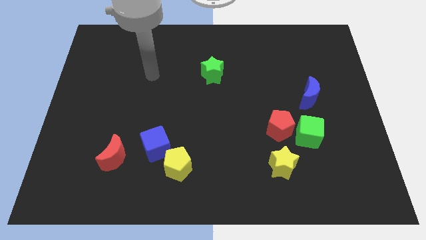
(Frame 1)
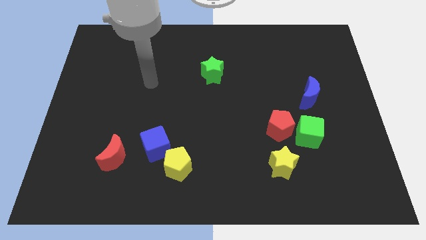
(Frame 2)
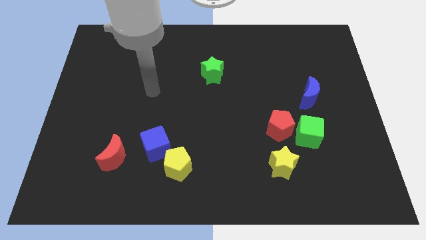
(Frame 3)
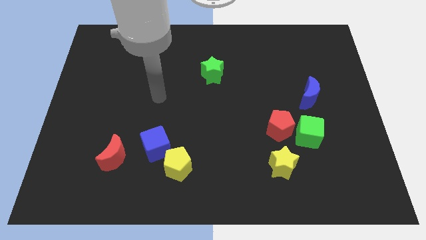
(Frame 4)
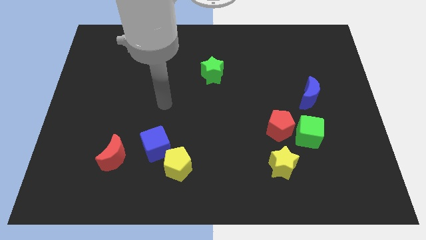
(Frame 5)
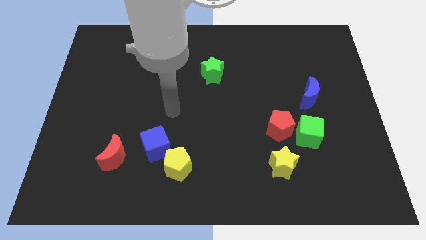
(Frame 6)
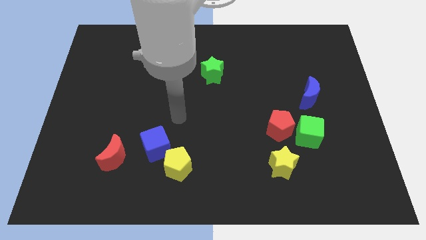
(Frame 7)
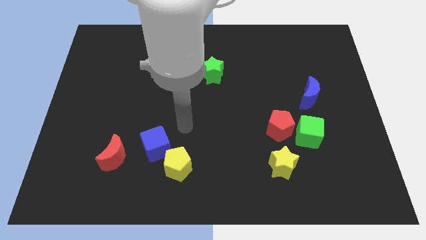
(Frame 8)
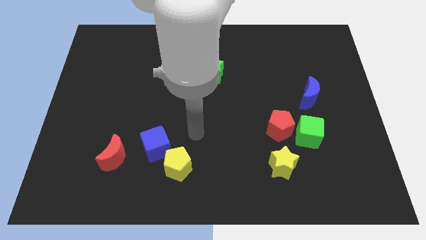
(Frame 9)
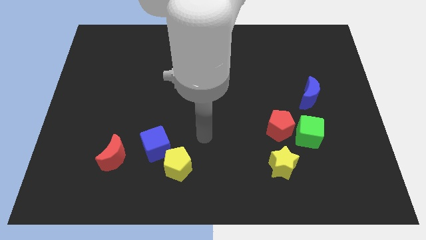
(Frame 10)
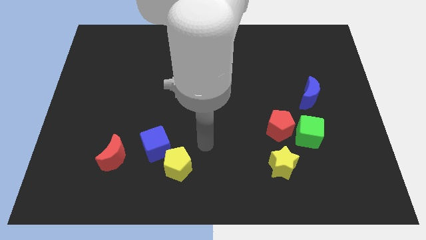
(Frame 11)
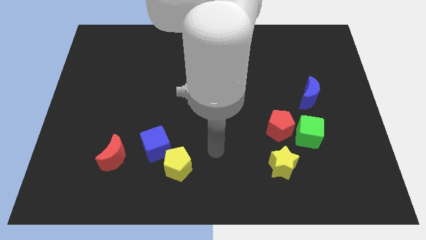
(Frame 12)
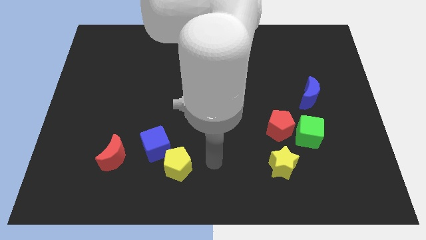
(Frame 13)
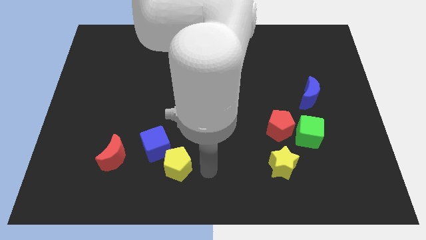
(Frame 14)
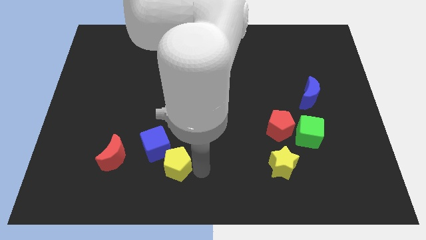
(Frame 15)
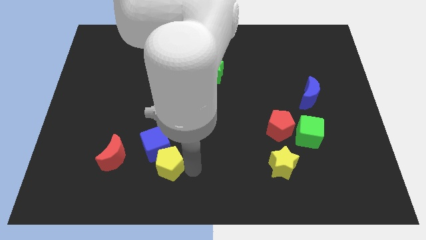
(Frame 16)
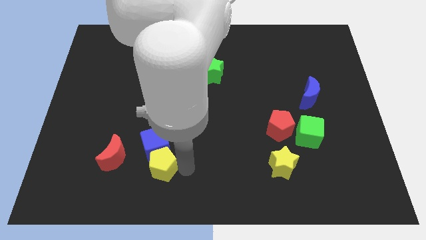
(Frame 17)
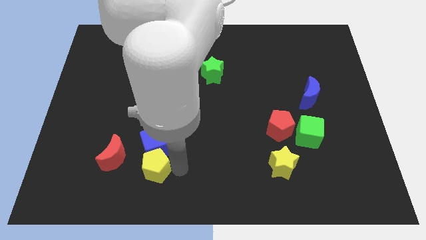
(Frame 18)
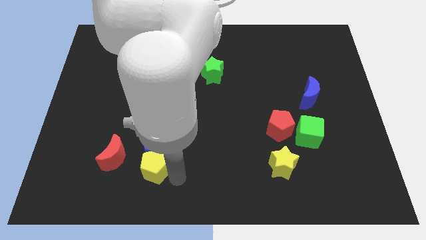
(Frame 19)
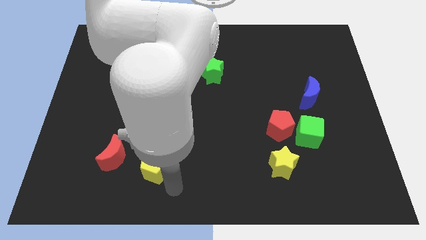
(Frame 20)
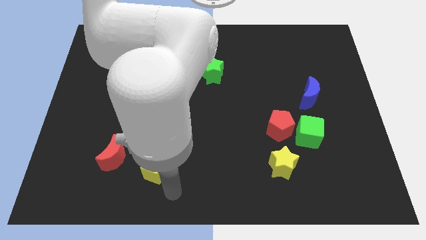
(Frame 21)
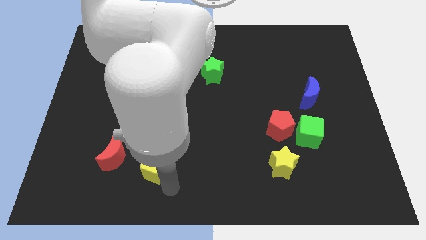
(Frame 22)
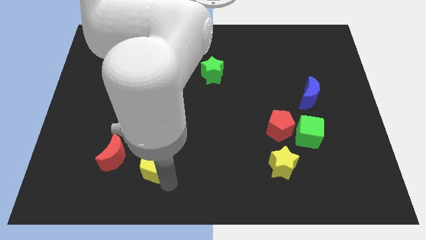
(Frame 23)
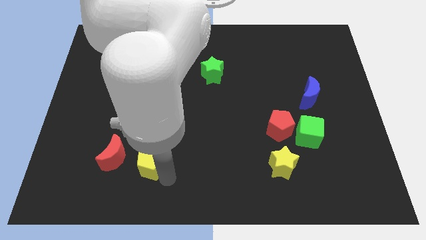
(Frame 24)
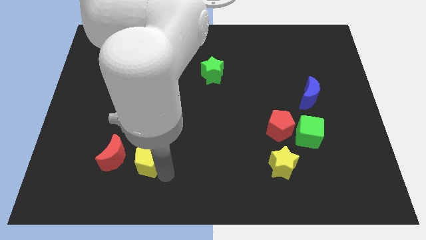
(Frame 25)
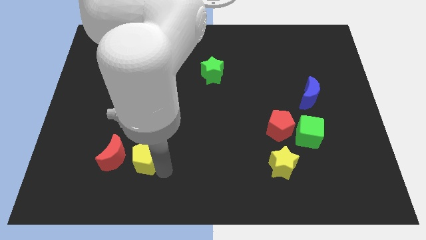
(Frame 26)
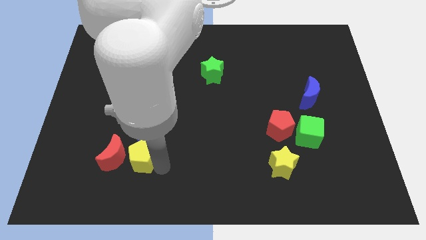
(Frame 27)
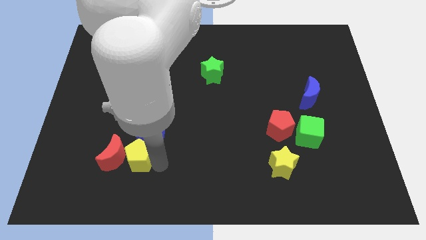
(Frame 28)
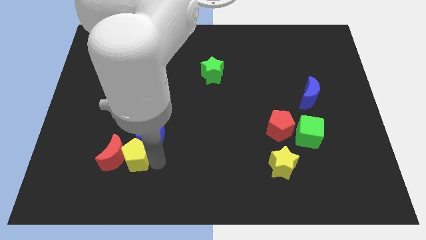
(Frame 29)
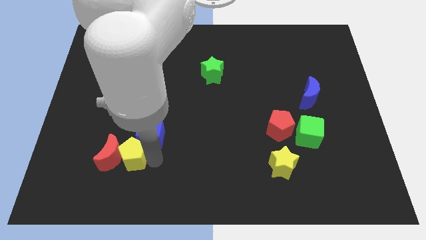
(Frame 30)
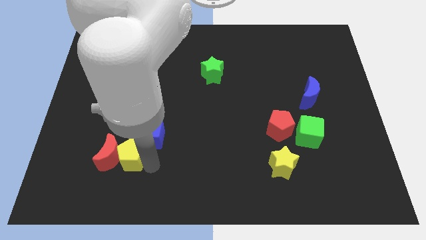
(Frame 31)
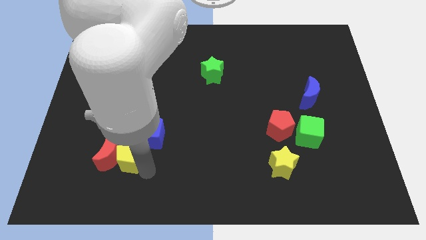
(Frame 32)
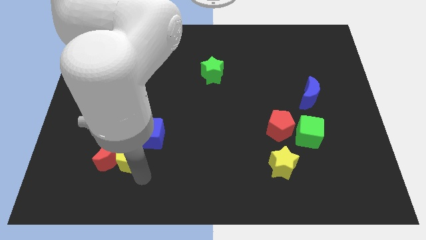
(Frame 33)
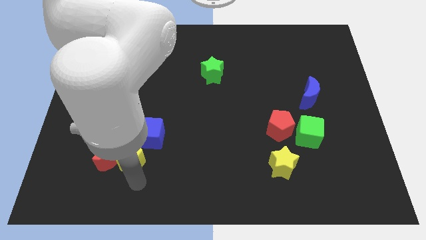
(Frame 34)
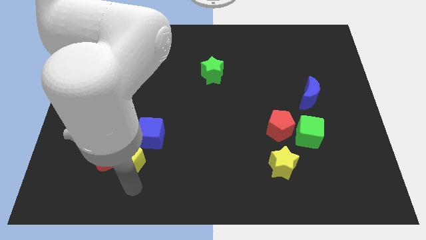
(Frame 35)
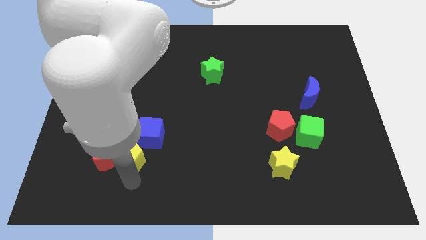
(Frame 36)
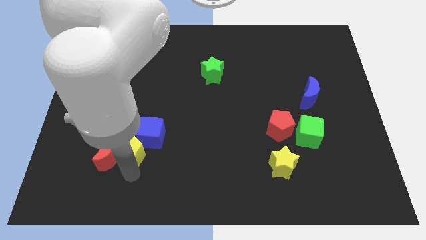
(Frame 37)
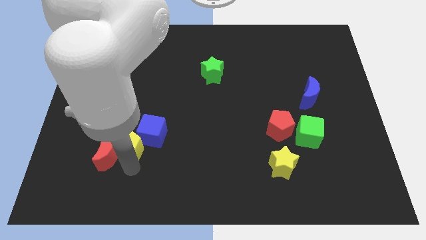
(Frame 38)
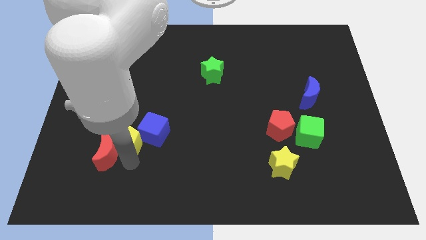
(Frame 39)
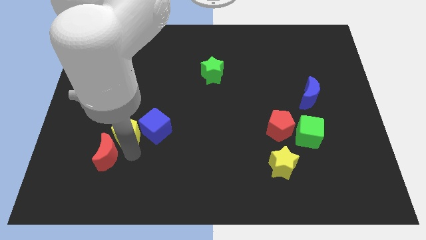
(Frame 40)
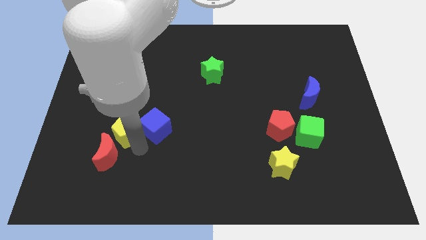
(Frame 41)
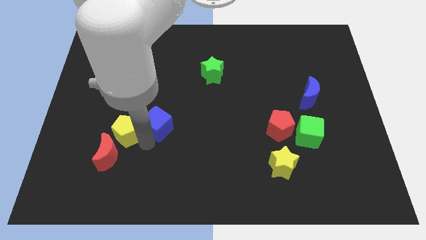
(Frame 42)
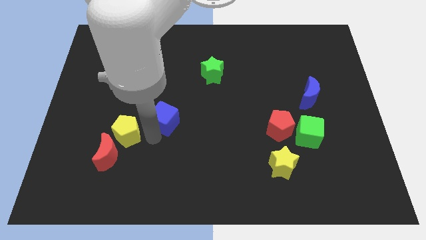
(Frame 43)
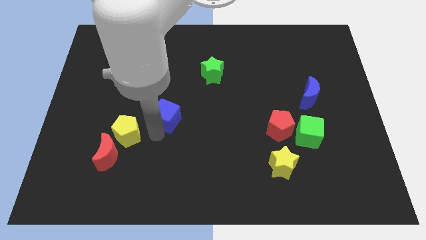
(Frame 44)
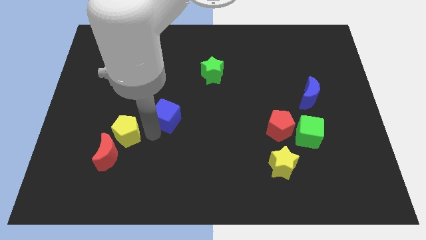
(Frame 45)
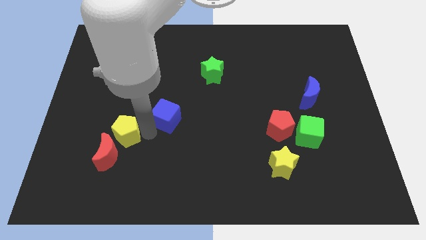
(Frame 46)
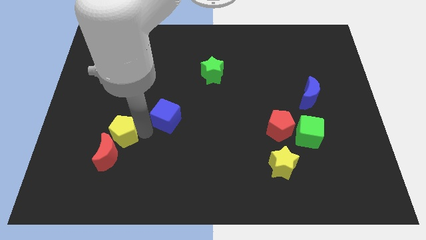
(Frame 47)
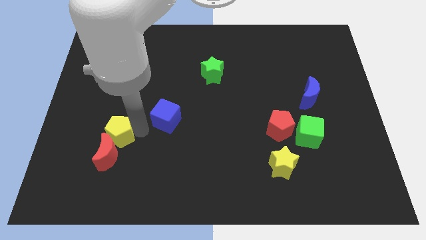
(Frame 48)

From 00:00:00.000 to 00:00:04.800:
put the yellow pentagon to the top left of the red moon

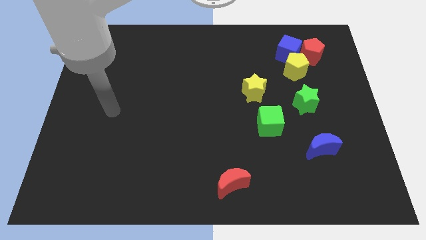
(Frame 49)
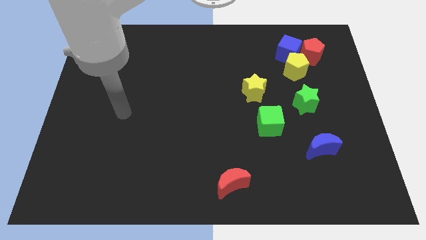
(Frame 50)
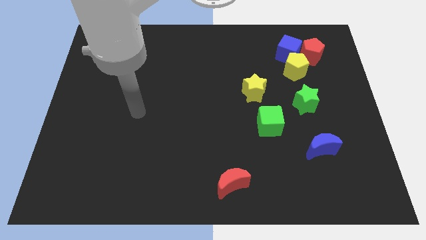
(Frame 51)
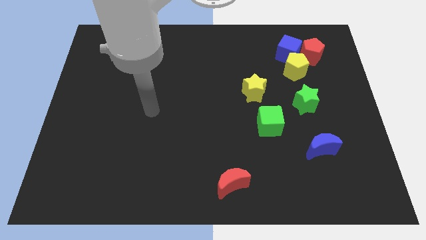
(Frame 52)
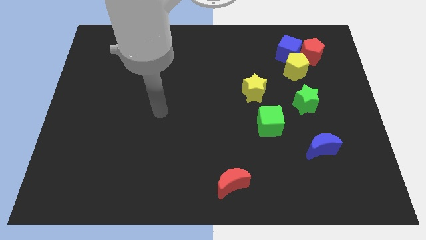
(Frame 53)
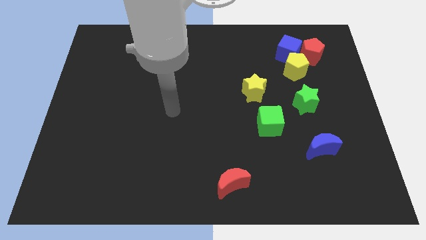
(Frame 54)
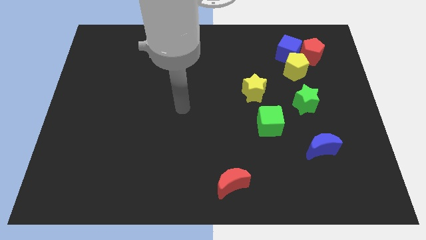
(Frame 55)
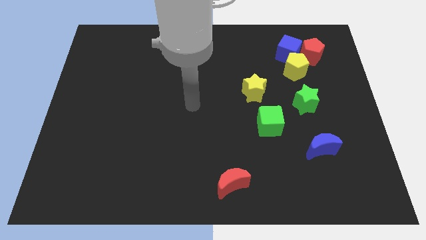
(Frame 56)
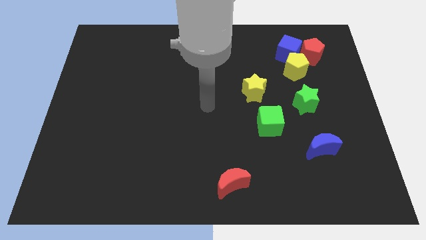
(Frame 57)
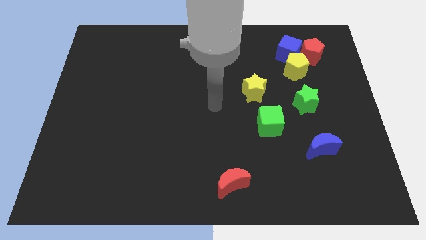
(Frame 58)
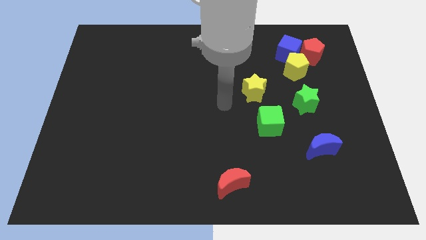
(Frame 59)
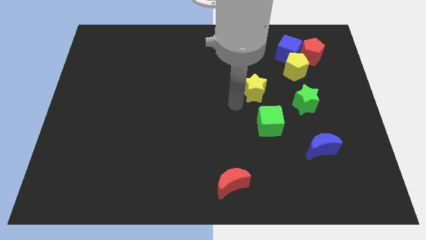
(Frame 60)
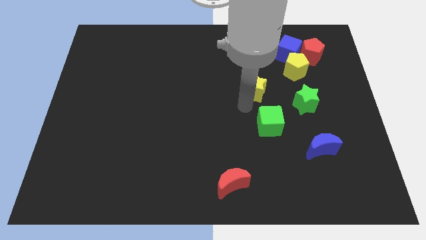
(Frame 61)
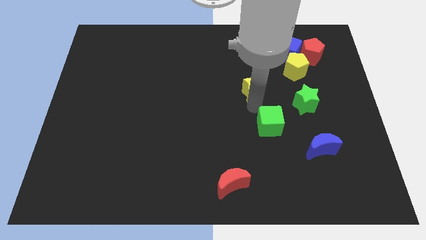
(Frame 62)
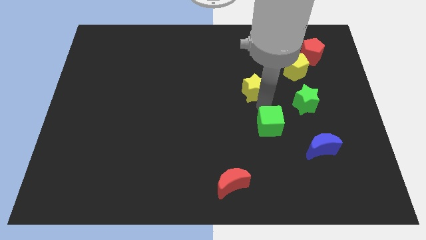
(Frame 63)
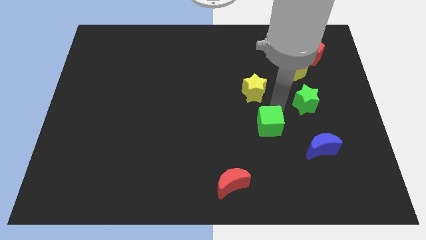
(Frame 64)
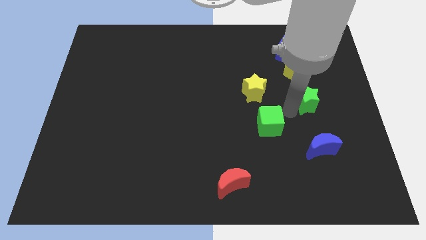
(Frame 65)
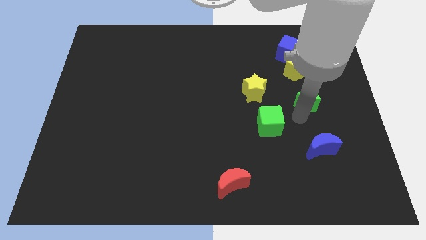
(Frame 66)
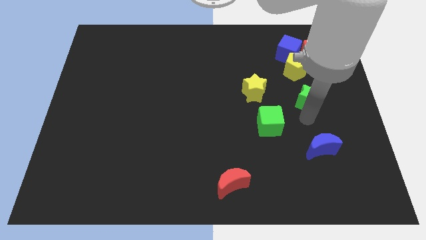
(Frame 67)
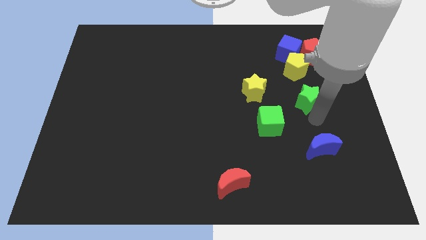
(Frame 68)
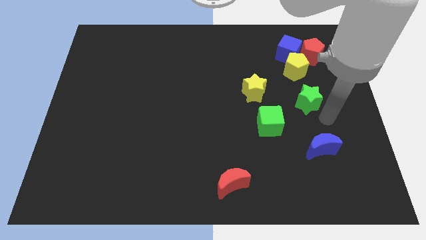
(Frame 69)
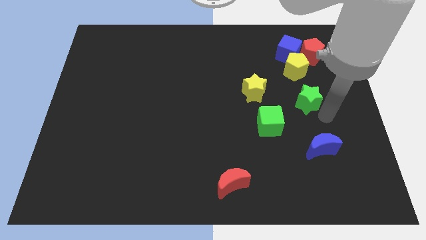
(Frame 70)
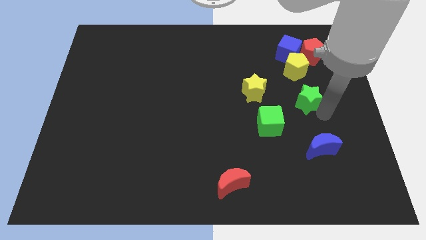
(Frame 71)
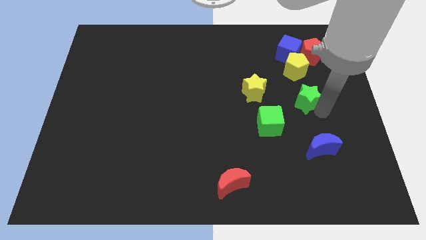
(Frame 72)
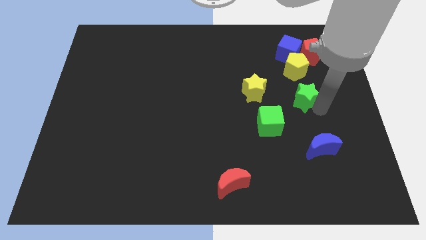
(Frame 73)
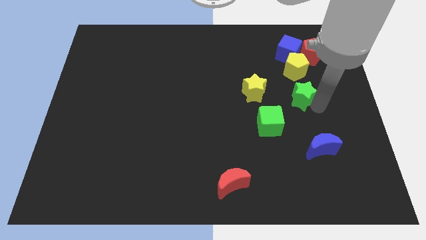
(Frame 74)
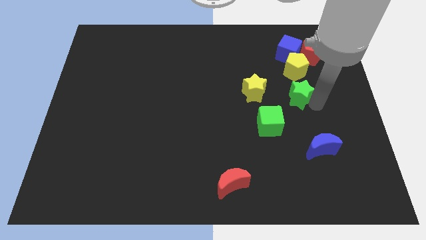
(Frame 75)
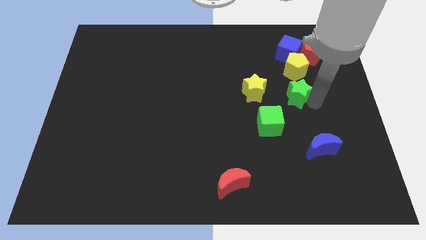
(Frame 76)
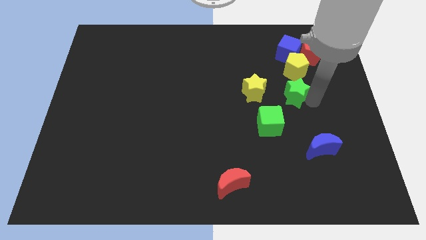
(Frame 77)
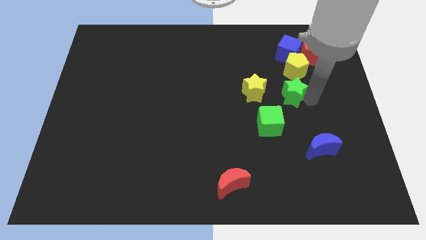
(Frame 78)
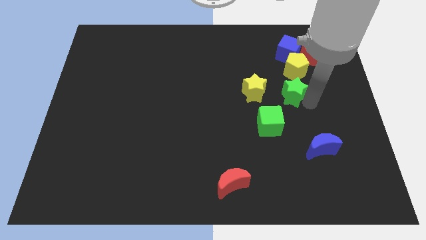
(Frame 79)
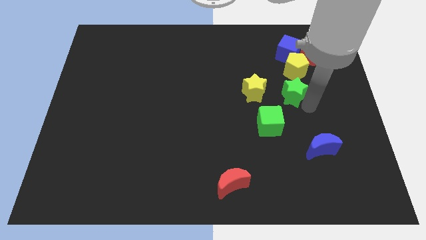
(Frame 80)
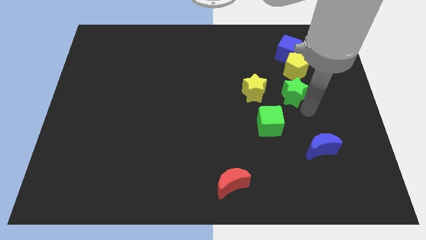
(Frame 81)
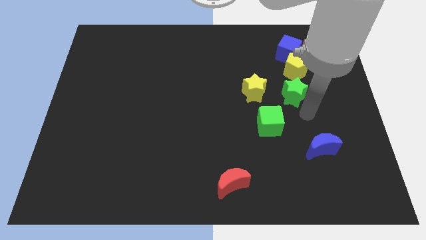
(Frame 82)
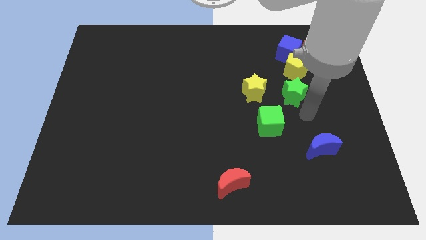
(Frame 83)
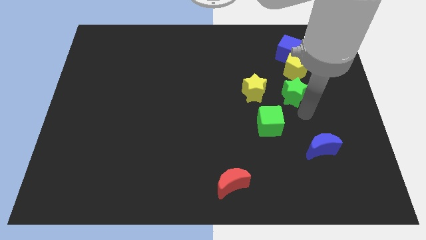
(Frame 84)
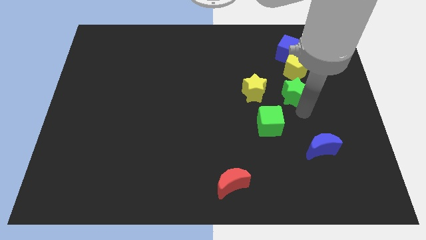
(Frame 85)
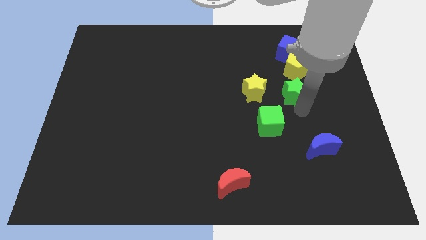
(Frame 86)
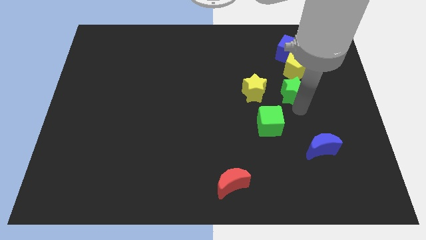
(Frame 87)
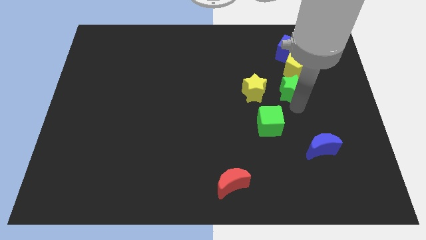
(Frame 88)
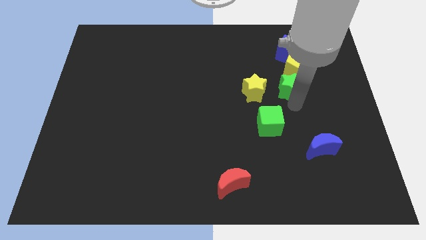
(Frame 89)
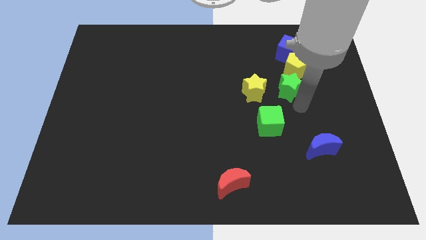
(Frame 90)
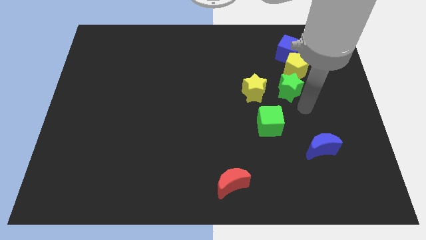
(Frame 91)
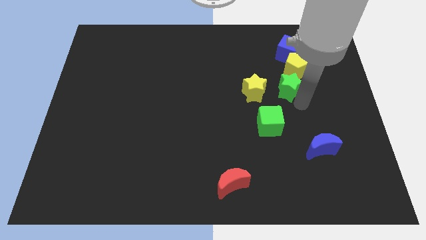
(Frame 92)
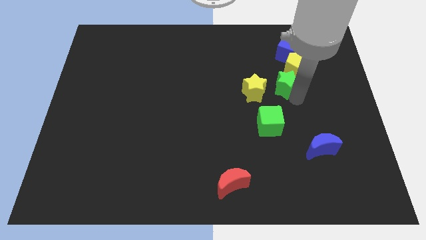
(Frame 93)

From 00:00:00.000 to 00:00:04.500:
push the green star diagonally up and to the right of the yellow star
